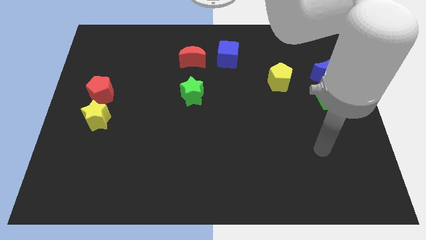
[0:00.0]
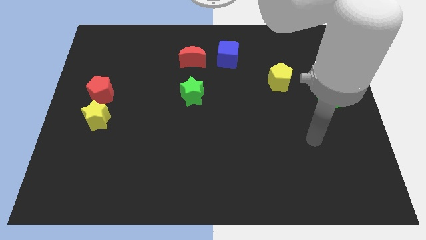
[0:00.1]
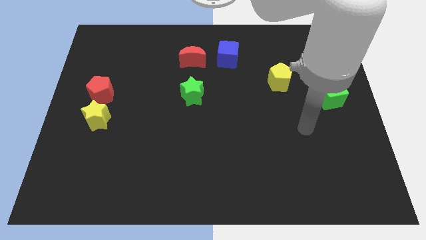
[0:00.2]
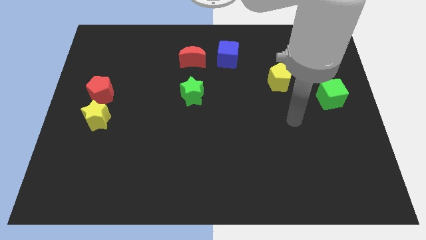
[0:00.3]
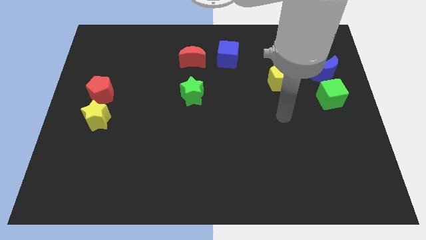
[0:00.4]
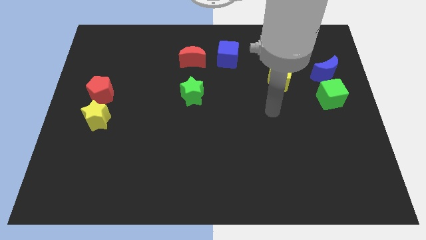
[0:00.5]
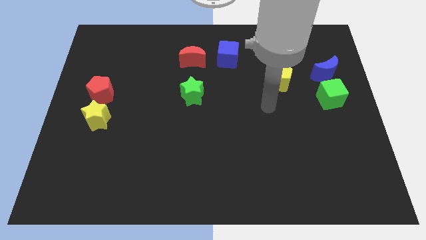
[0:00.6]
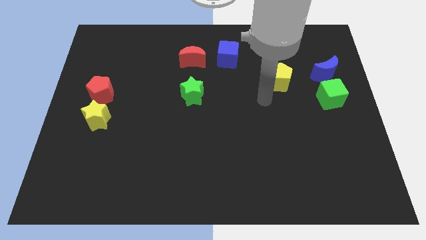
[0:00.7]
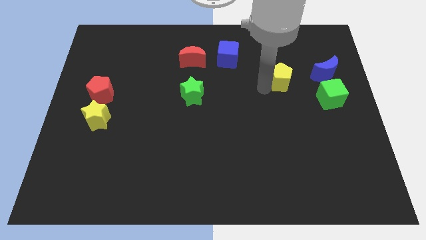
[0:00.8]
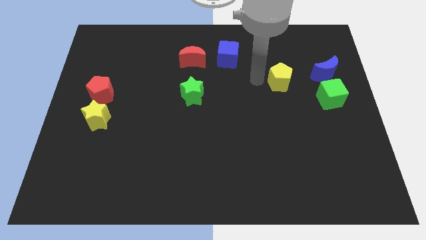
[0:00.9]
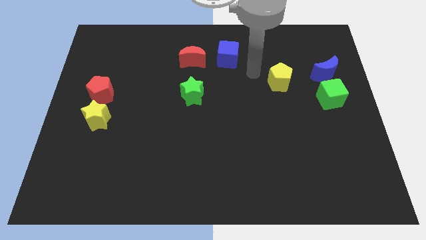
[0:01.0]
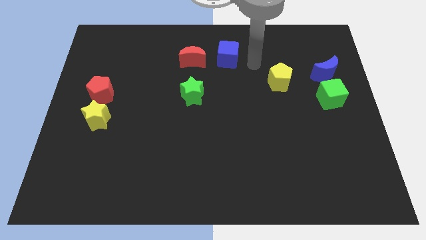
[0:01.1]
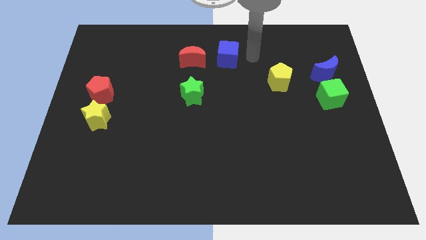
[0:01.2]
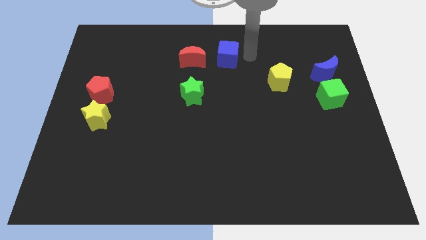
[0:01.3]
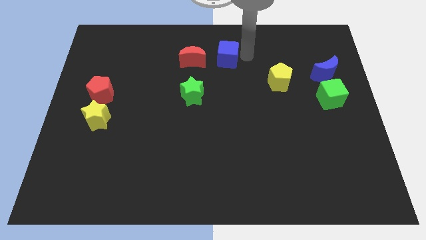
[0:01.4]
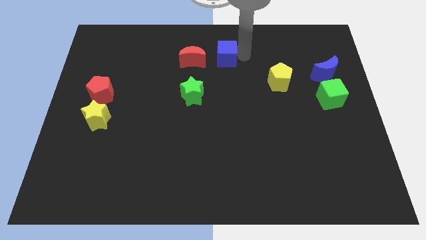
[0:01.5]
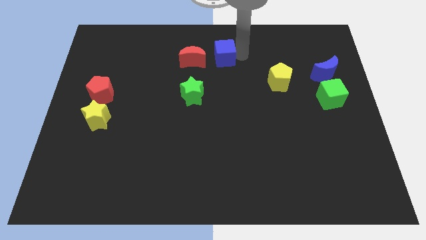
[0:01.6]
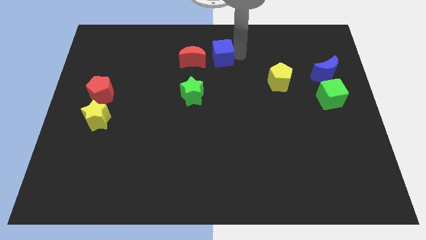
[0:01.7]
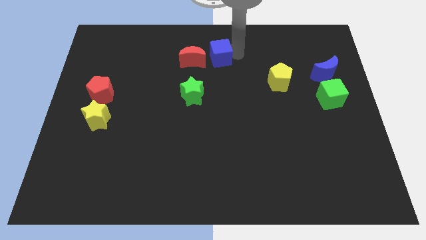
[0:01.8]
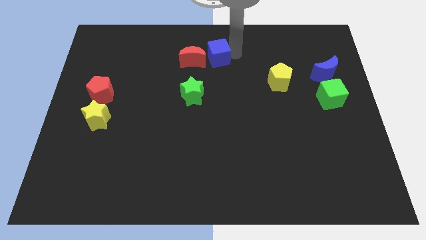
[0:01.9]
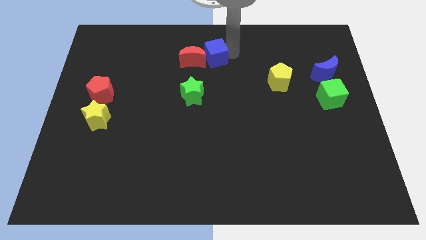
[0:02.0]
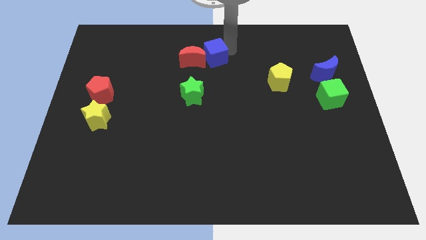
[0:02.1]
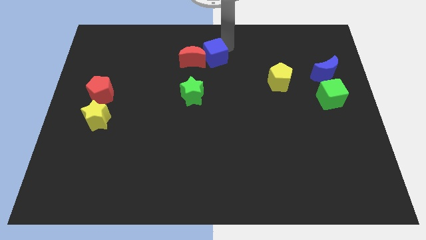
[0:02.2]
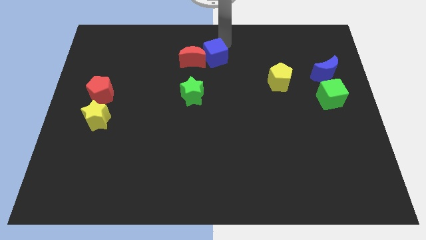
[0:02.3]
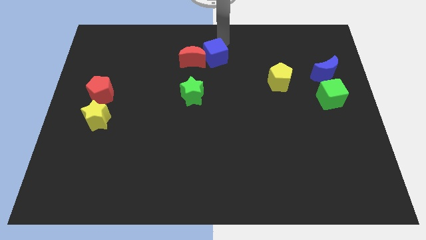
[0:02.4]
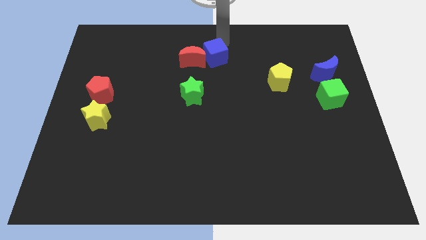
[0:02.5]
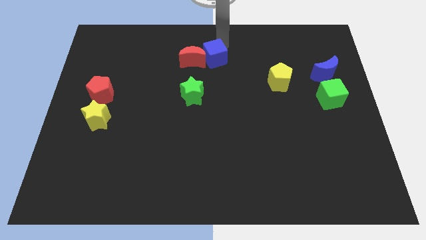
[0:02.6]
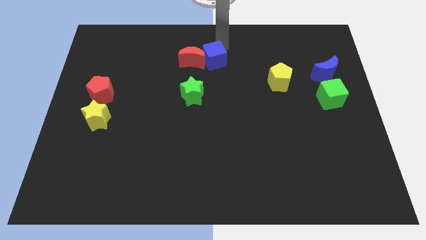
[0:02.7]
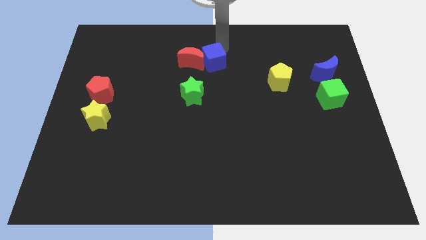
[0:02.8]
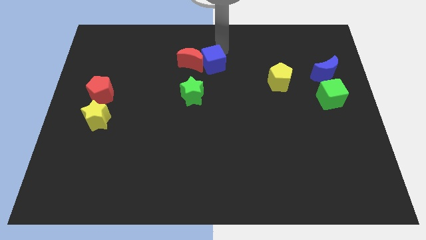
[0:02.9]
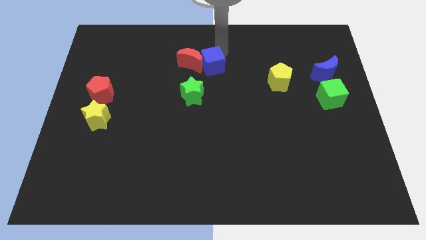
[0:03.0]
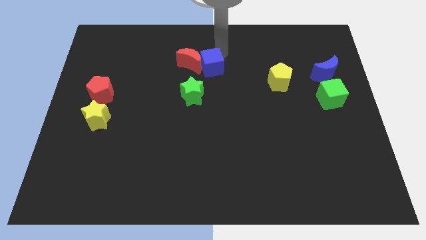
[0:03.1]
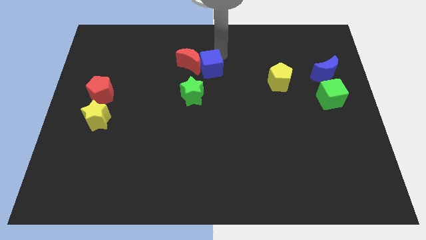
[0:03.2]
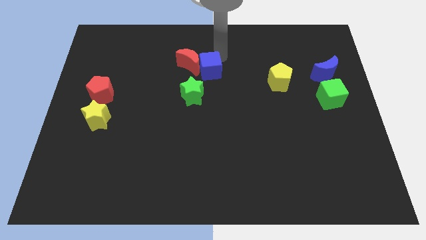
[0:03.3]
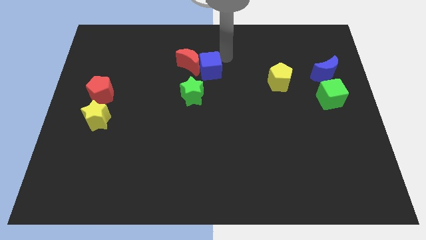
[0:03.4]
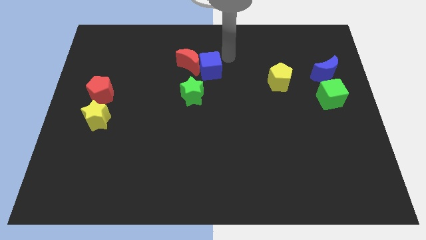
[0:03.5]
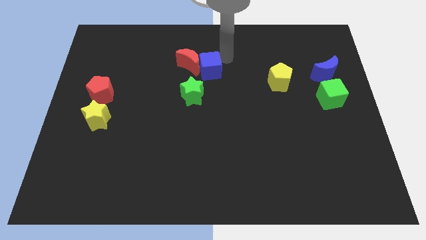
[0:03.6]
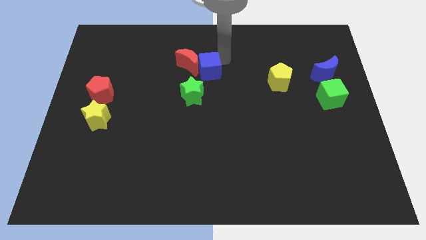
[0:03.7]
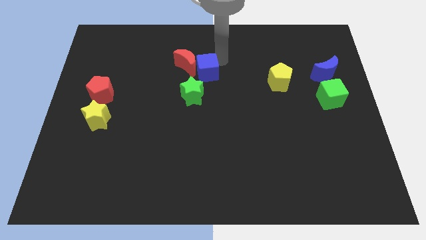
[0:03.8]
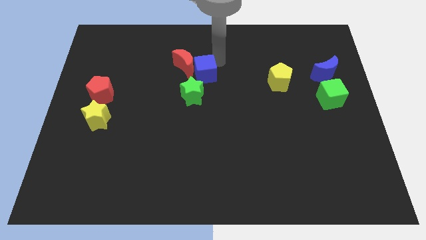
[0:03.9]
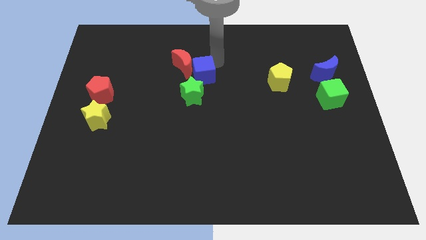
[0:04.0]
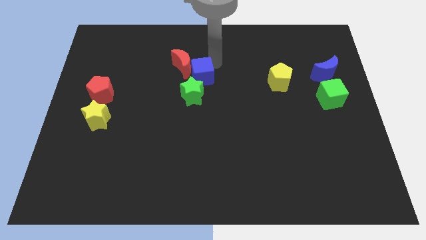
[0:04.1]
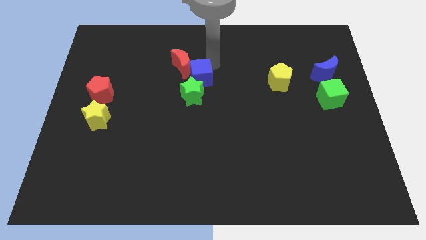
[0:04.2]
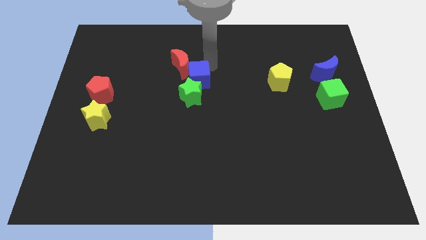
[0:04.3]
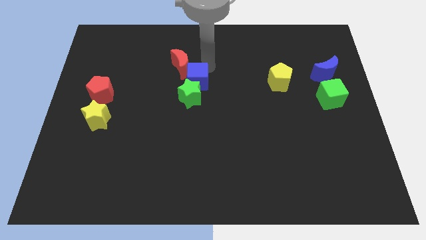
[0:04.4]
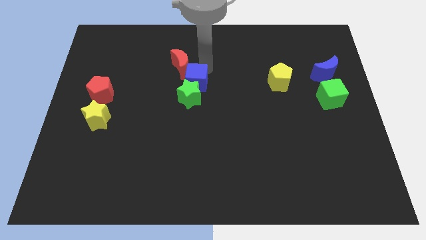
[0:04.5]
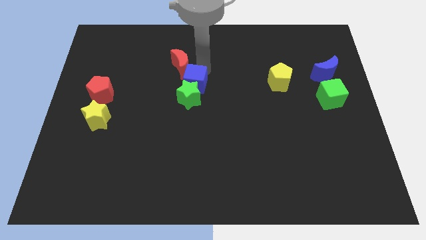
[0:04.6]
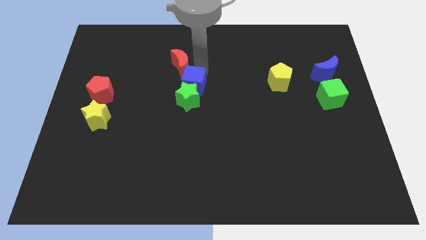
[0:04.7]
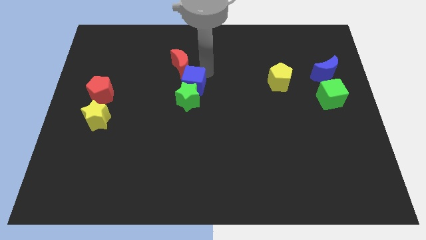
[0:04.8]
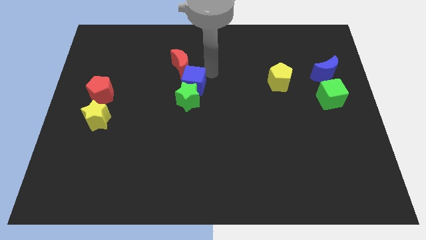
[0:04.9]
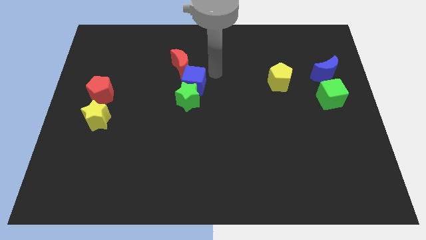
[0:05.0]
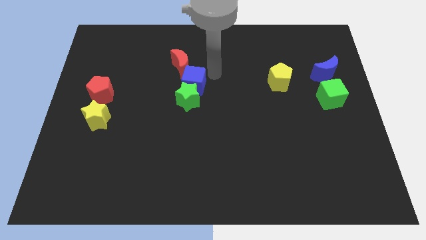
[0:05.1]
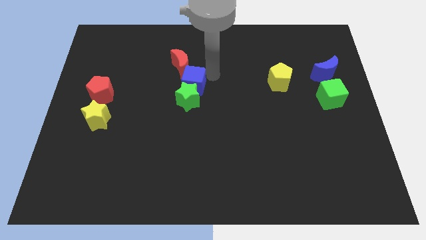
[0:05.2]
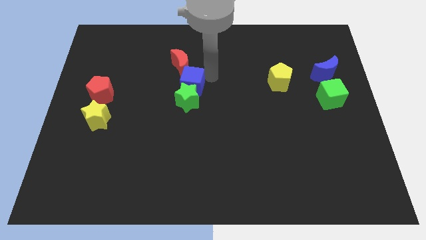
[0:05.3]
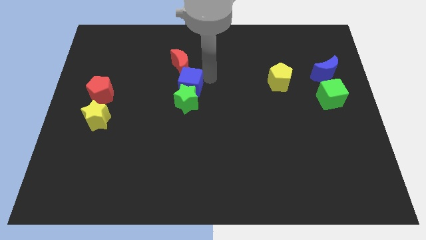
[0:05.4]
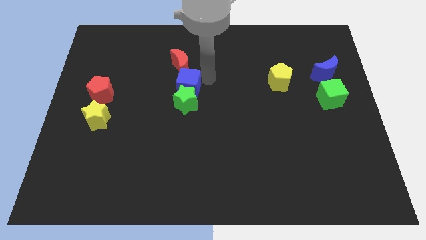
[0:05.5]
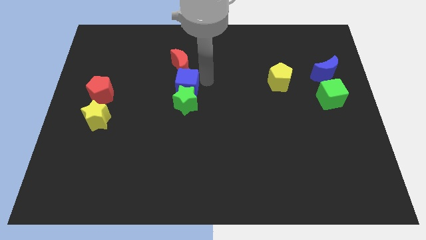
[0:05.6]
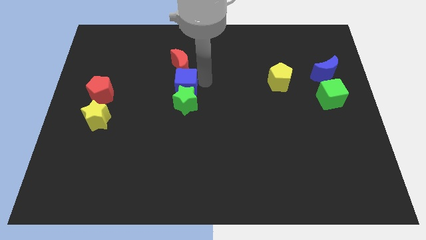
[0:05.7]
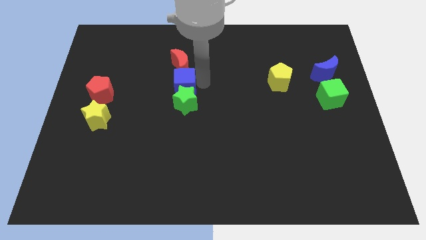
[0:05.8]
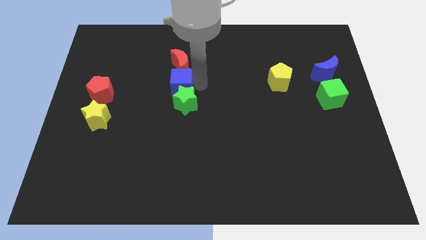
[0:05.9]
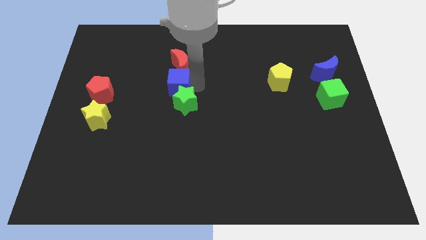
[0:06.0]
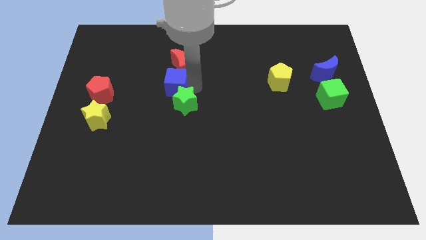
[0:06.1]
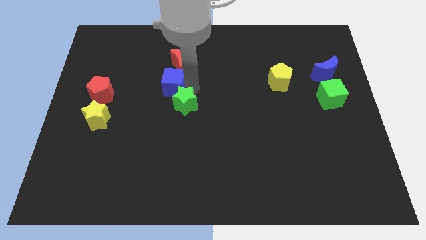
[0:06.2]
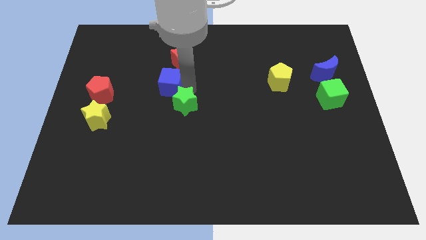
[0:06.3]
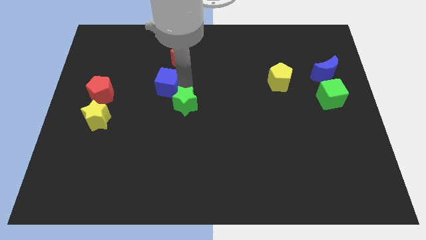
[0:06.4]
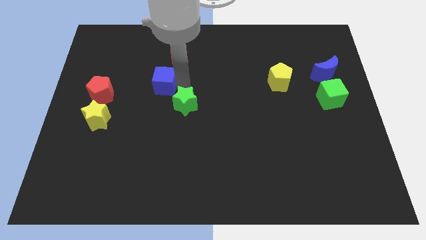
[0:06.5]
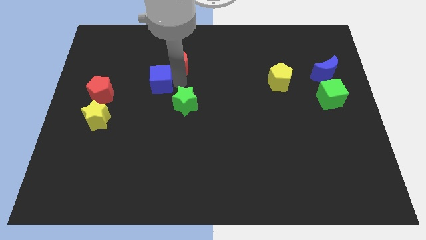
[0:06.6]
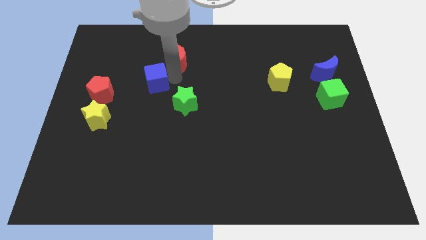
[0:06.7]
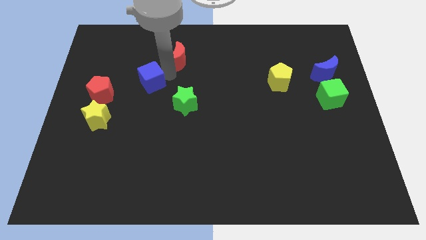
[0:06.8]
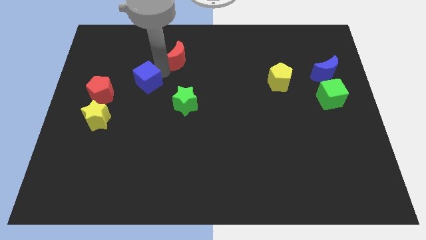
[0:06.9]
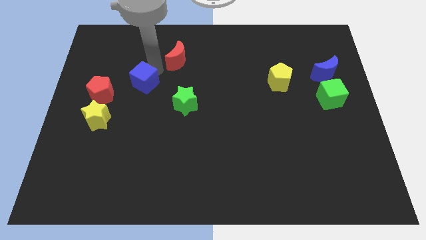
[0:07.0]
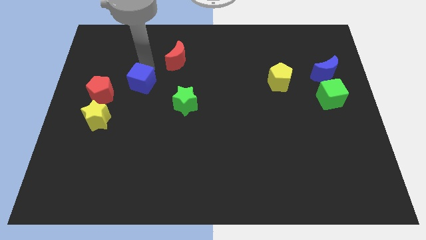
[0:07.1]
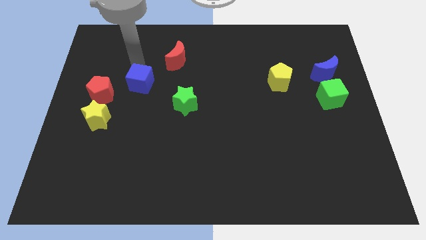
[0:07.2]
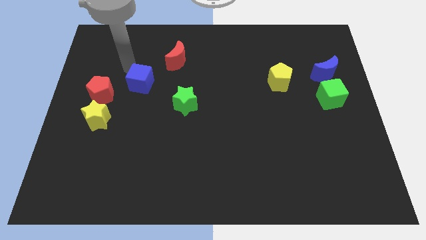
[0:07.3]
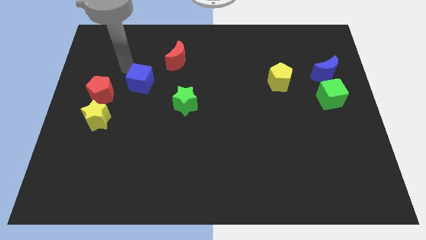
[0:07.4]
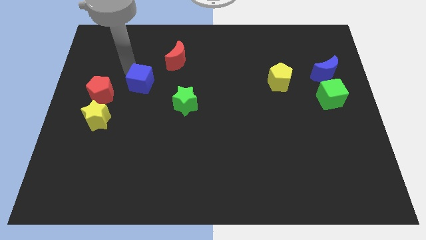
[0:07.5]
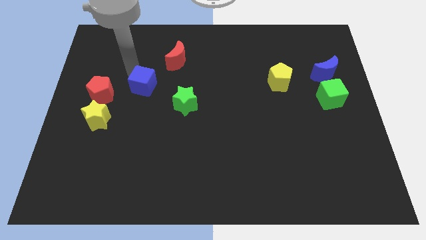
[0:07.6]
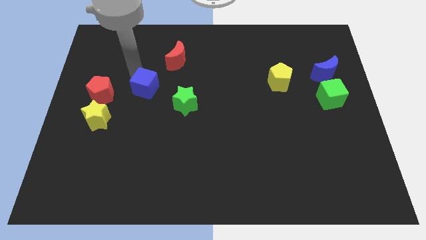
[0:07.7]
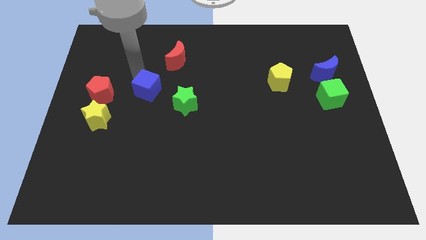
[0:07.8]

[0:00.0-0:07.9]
slide the blue cube downwards and to the left diagonally

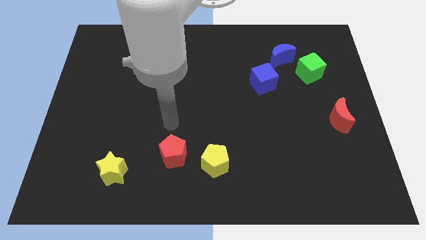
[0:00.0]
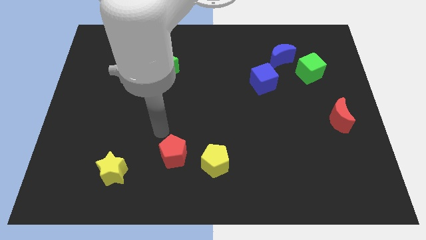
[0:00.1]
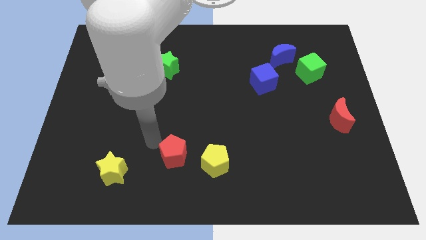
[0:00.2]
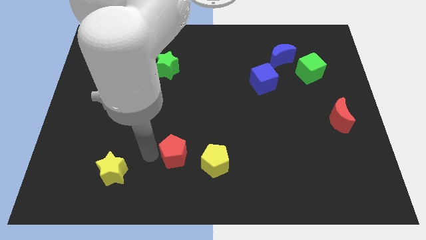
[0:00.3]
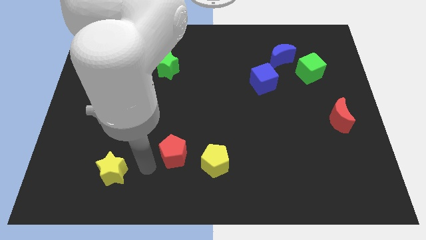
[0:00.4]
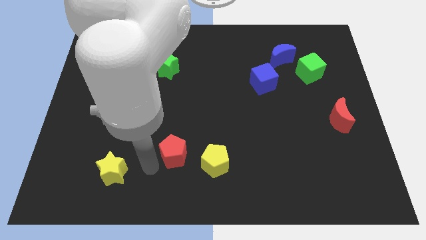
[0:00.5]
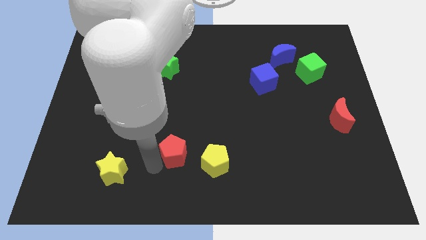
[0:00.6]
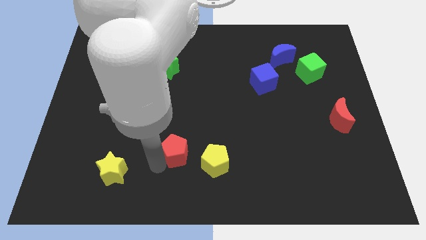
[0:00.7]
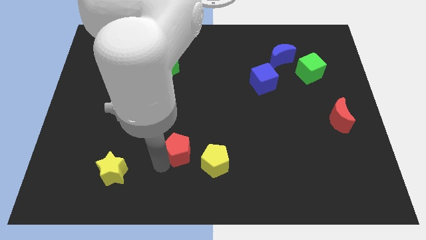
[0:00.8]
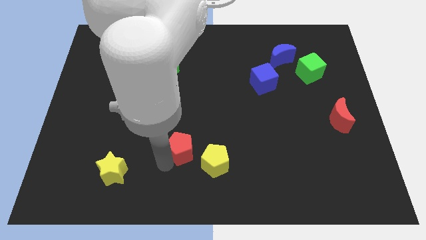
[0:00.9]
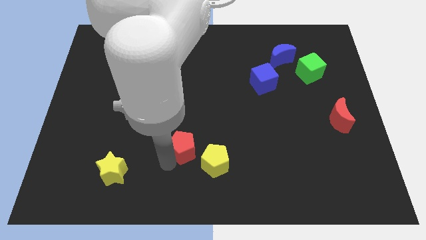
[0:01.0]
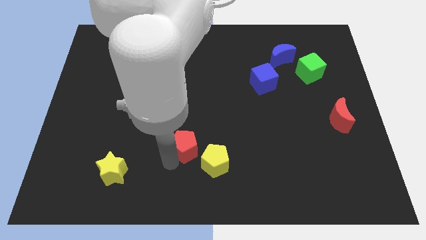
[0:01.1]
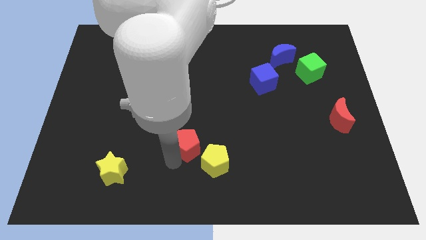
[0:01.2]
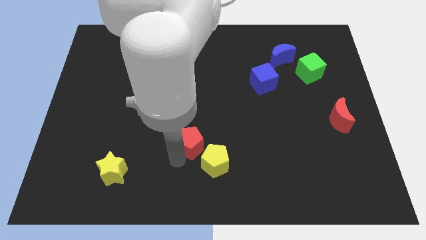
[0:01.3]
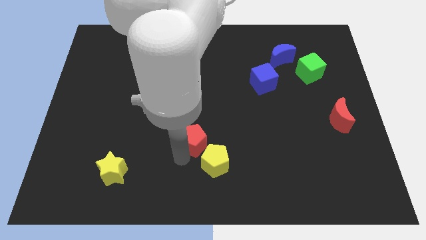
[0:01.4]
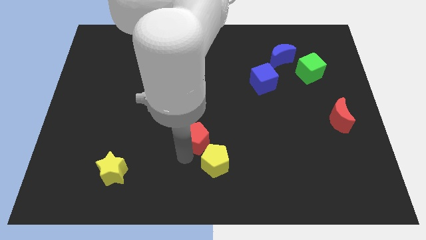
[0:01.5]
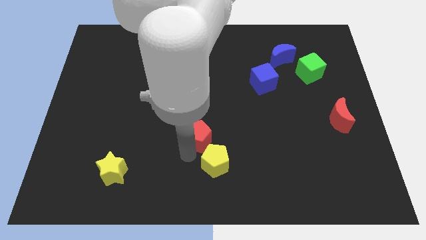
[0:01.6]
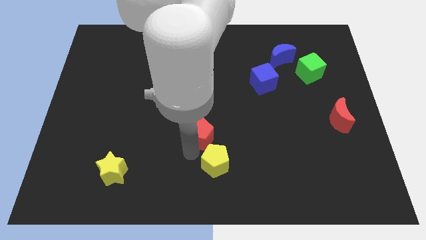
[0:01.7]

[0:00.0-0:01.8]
push the red pentagon a bit up and to the right diagonally
